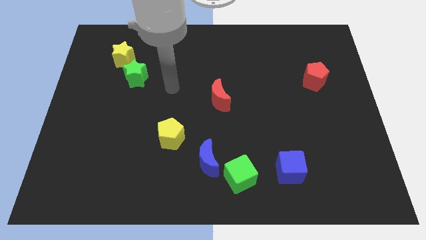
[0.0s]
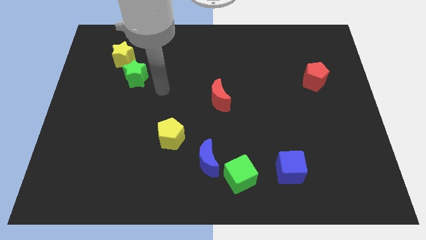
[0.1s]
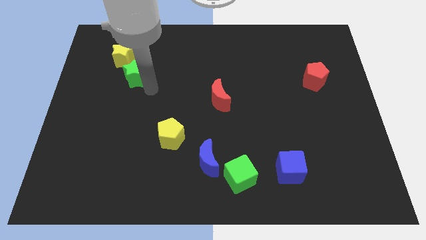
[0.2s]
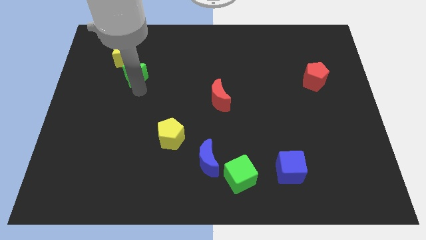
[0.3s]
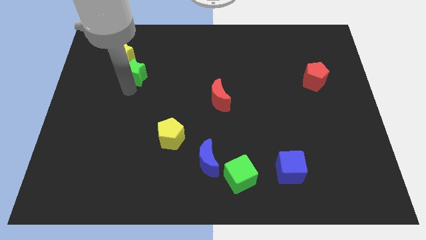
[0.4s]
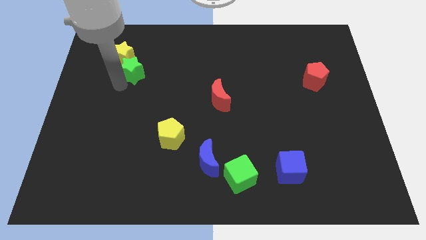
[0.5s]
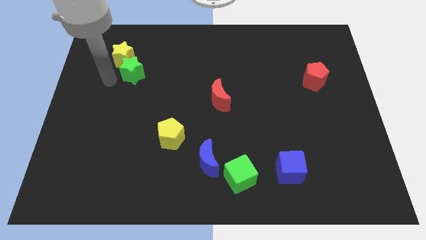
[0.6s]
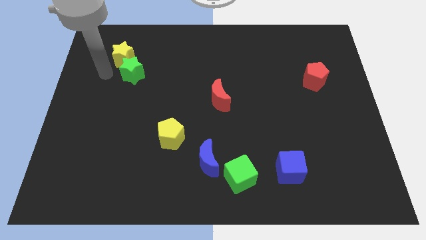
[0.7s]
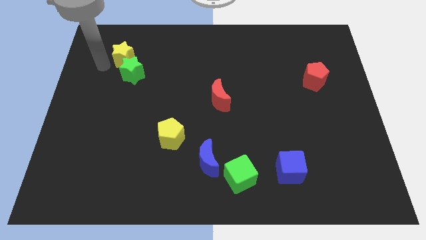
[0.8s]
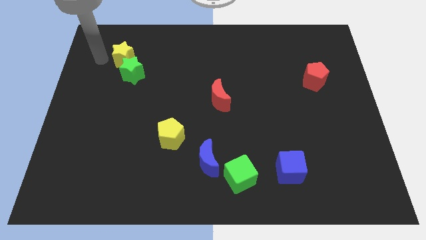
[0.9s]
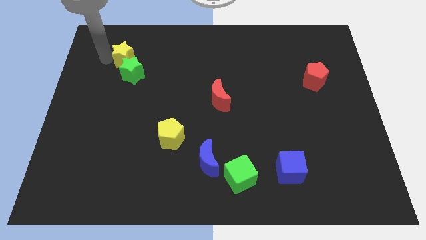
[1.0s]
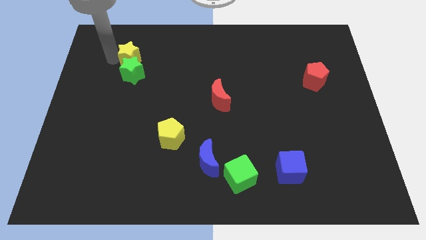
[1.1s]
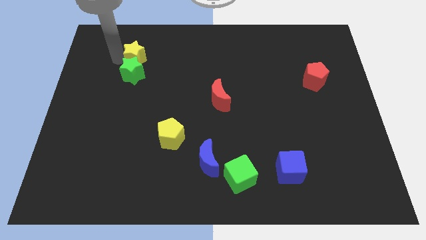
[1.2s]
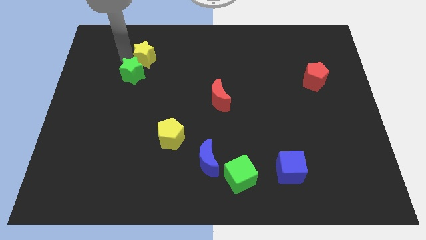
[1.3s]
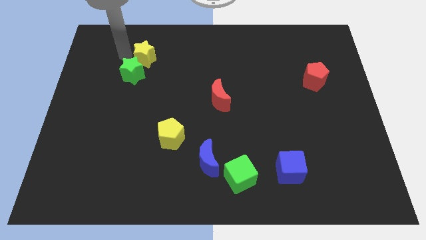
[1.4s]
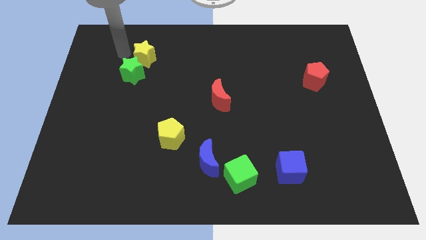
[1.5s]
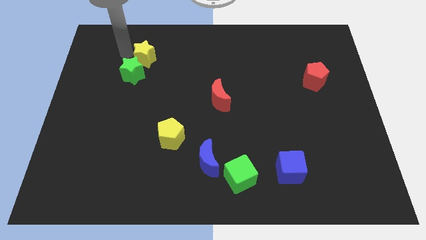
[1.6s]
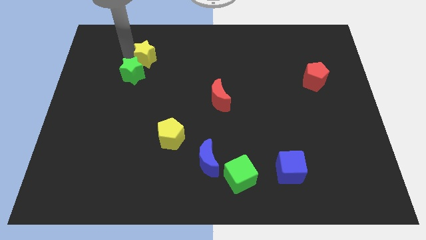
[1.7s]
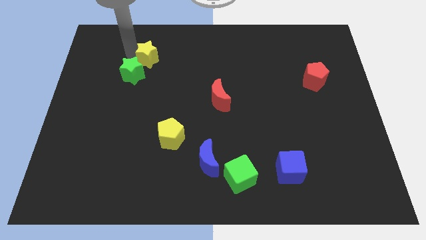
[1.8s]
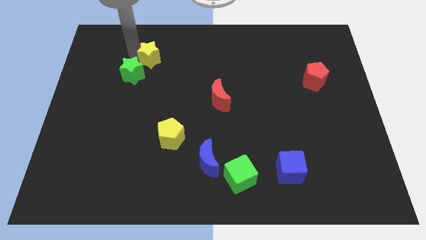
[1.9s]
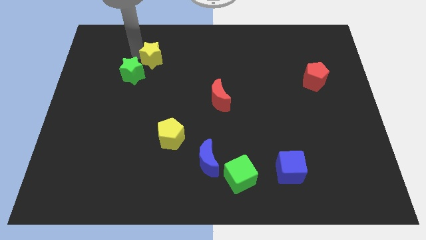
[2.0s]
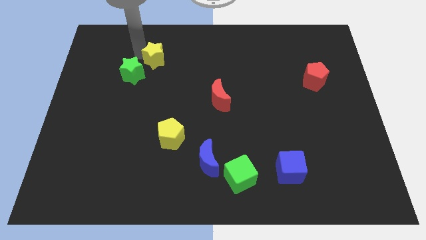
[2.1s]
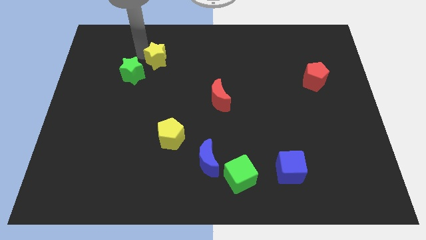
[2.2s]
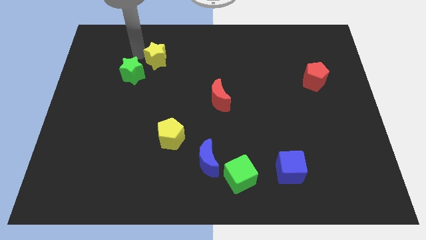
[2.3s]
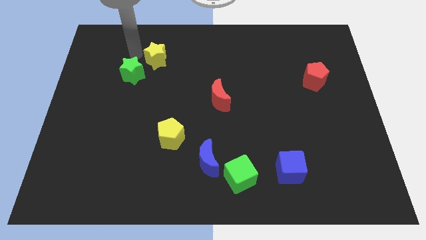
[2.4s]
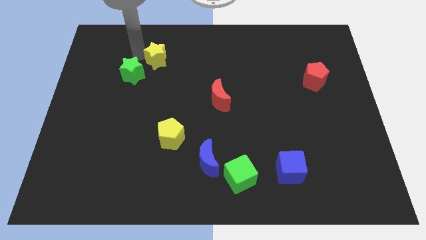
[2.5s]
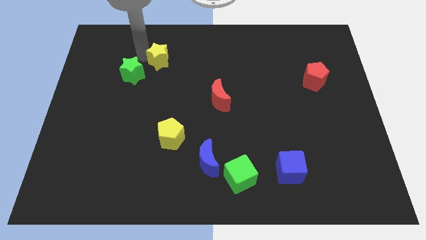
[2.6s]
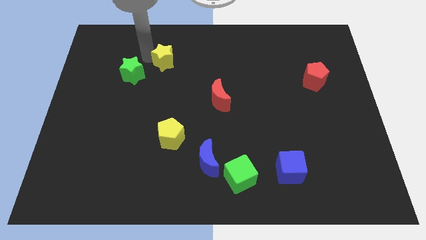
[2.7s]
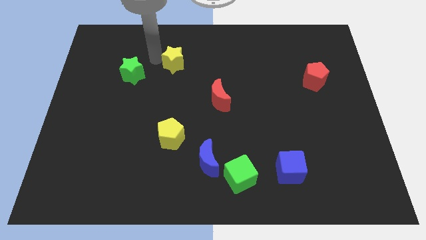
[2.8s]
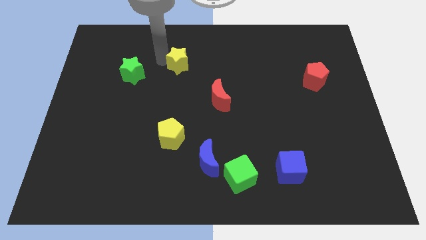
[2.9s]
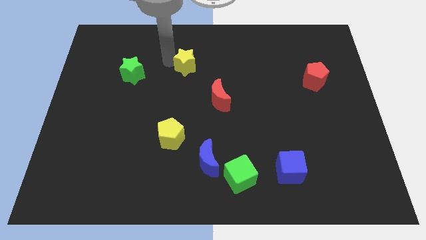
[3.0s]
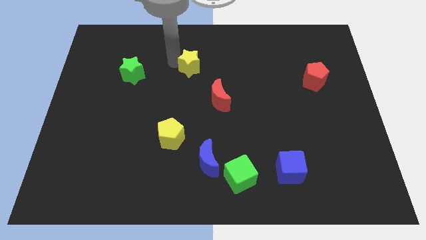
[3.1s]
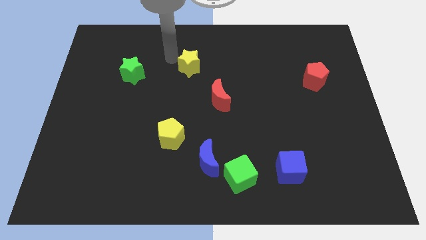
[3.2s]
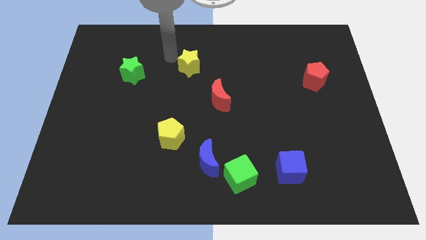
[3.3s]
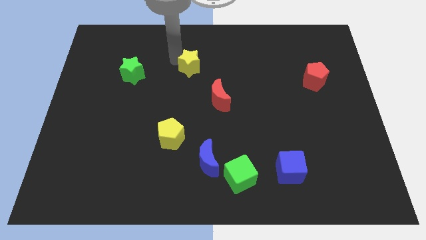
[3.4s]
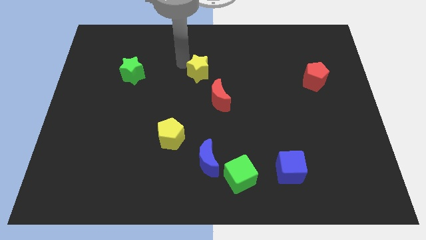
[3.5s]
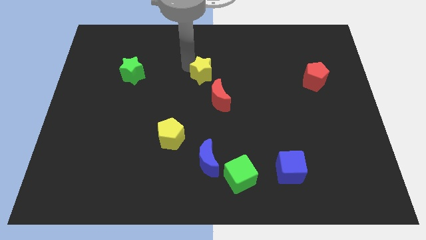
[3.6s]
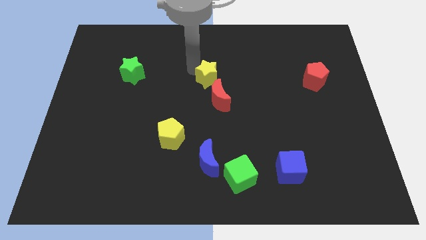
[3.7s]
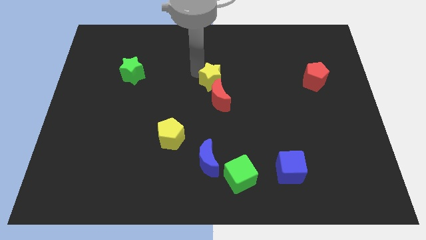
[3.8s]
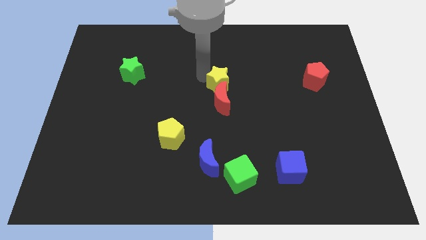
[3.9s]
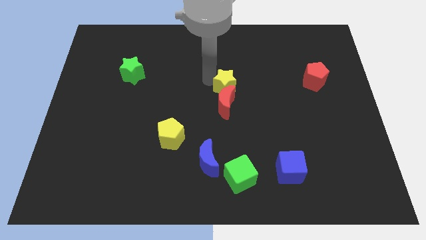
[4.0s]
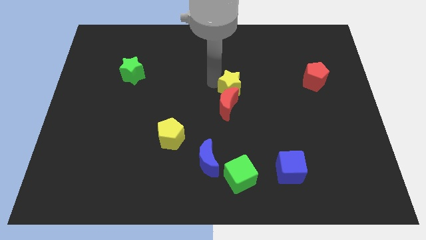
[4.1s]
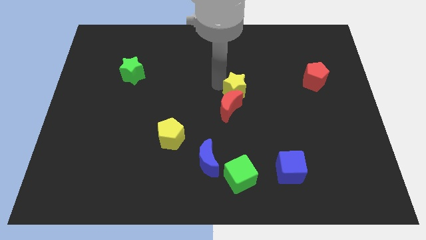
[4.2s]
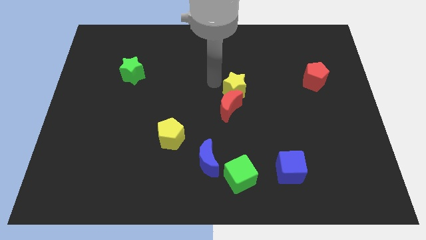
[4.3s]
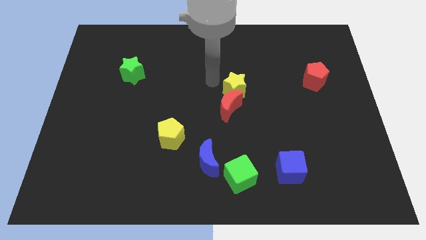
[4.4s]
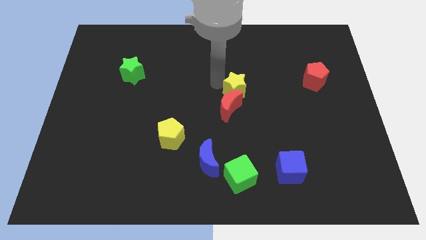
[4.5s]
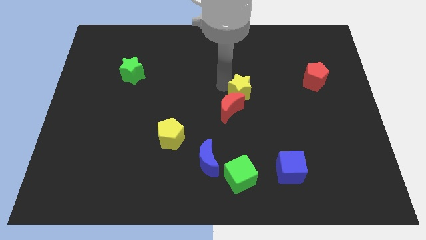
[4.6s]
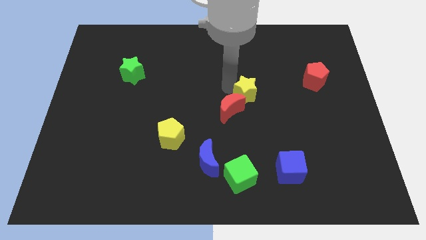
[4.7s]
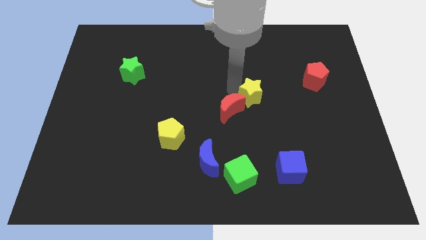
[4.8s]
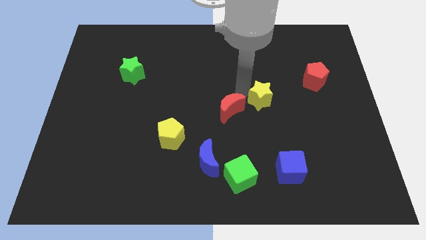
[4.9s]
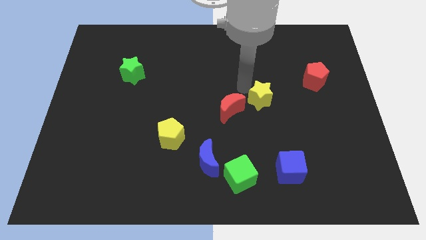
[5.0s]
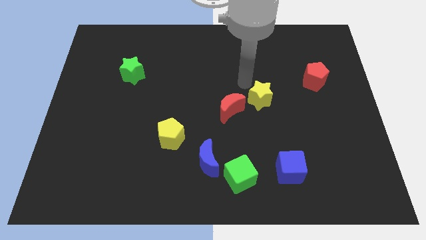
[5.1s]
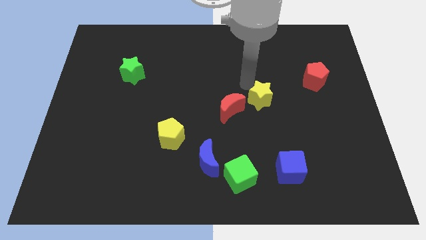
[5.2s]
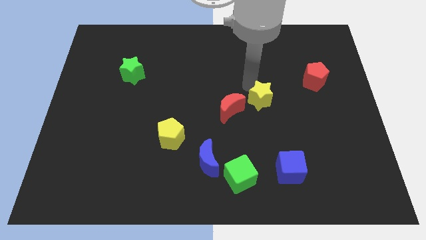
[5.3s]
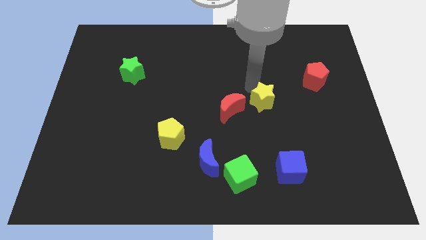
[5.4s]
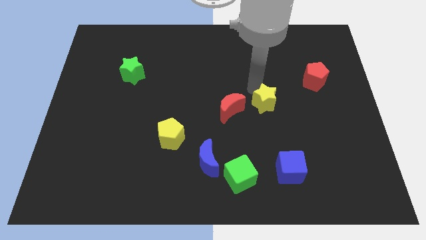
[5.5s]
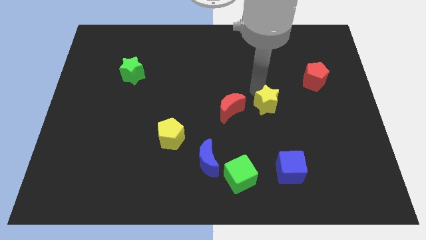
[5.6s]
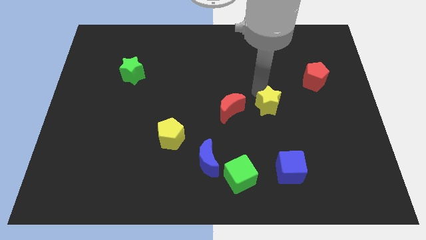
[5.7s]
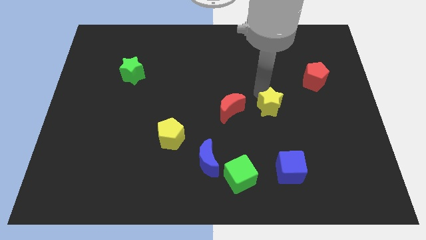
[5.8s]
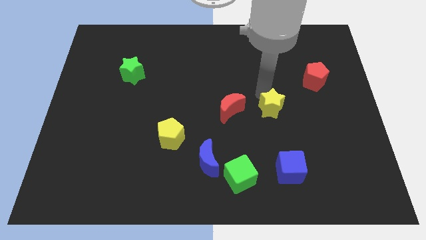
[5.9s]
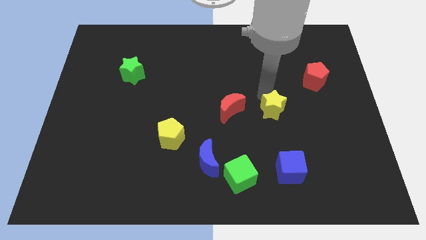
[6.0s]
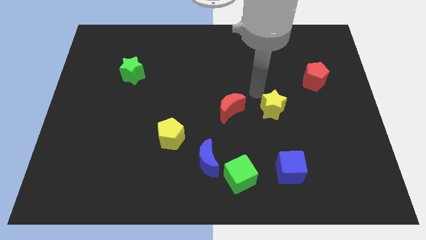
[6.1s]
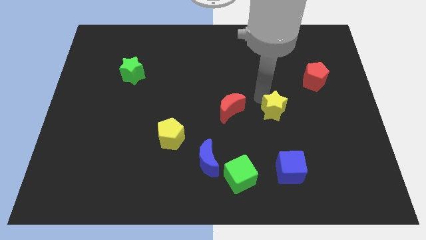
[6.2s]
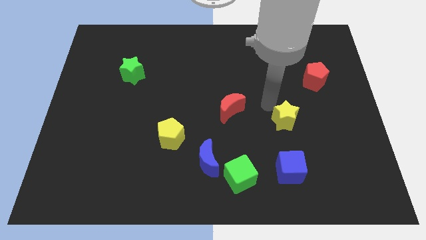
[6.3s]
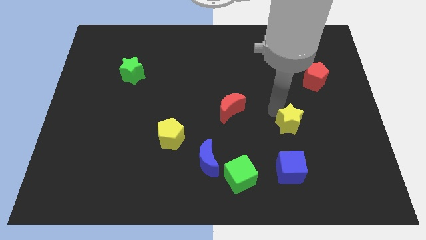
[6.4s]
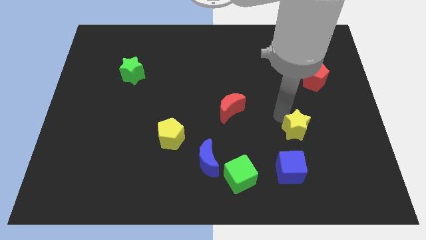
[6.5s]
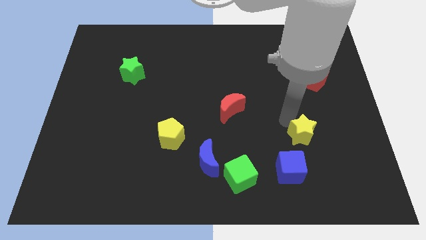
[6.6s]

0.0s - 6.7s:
slide the yellow star diagonally up and to the right of the blue cube

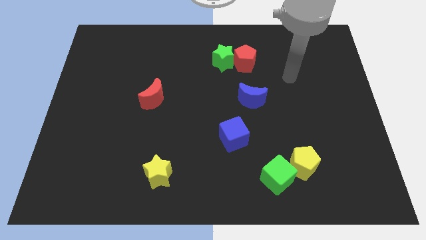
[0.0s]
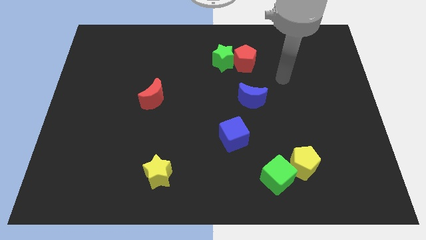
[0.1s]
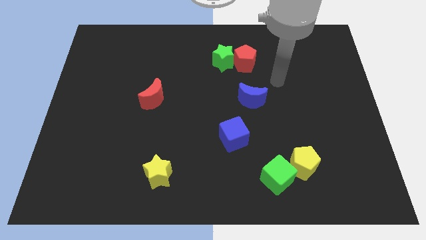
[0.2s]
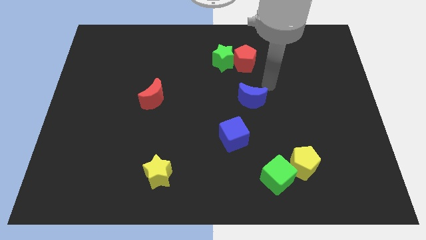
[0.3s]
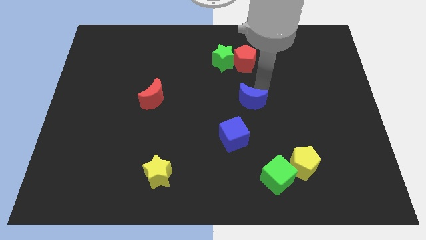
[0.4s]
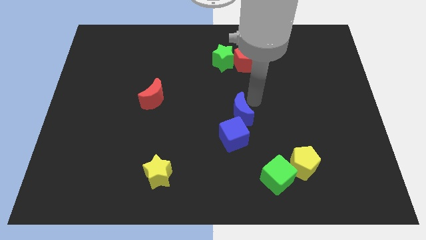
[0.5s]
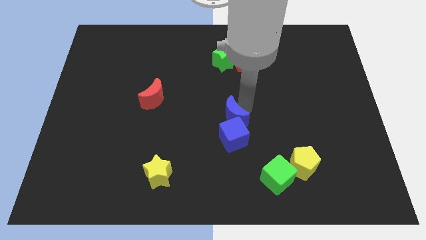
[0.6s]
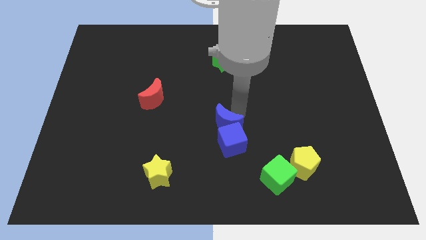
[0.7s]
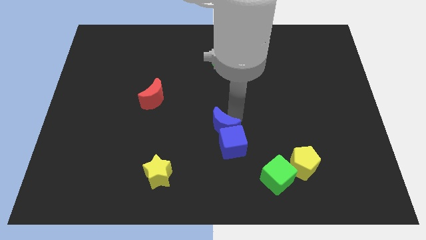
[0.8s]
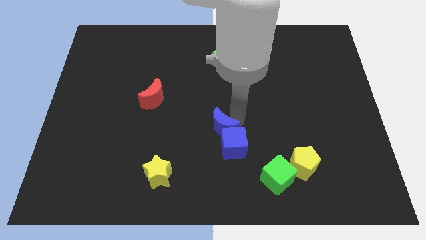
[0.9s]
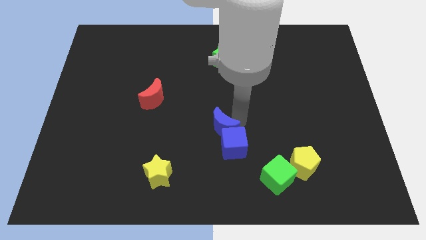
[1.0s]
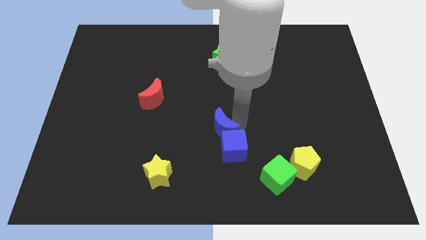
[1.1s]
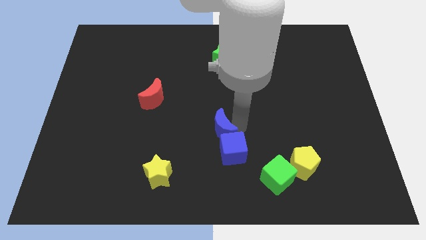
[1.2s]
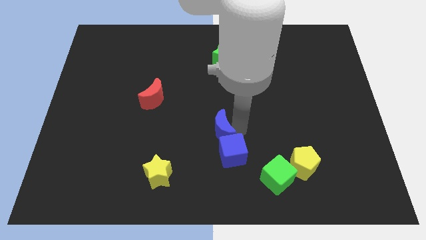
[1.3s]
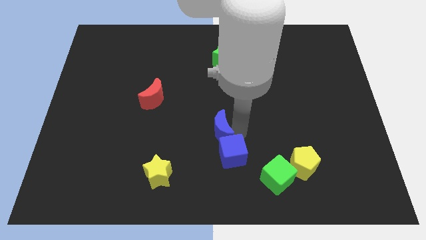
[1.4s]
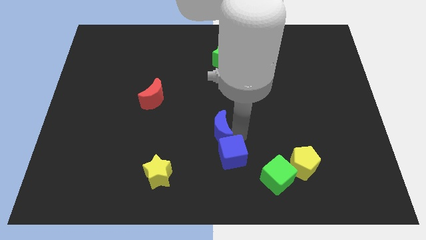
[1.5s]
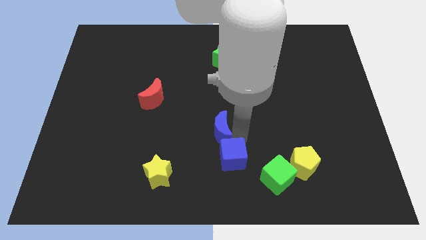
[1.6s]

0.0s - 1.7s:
push the blue cube left of the green cube
